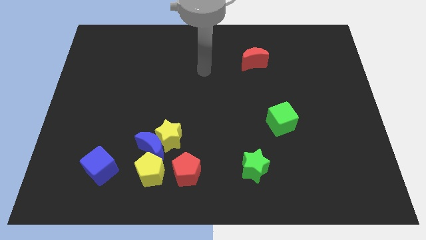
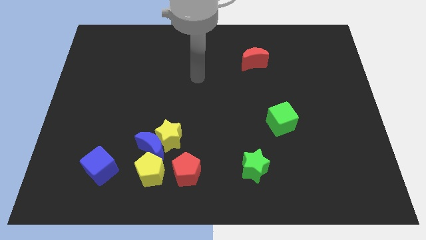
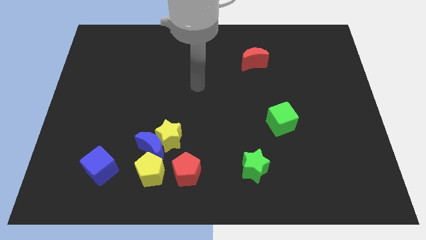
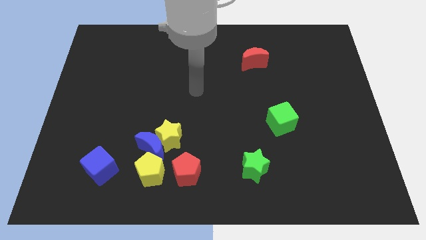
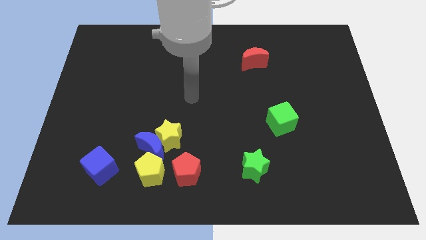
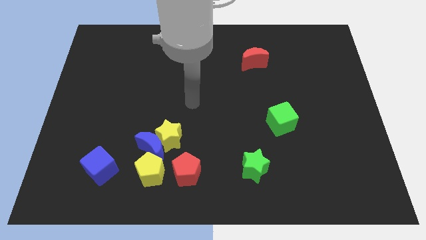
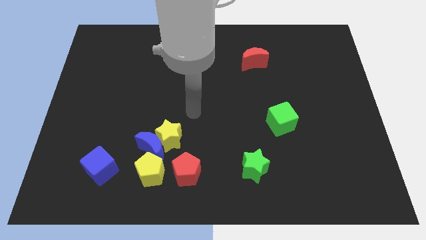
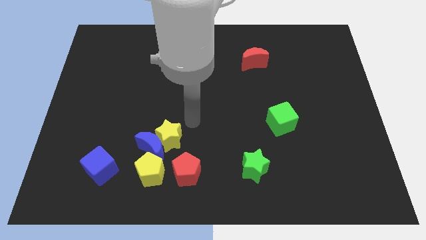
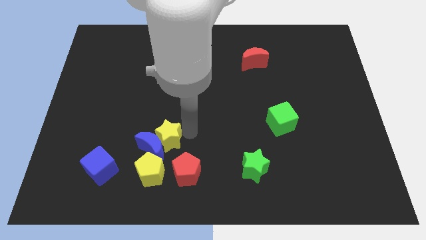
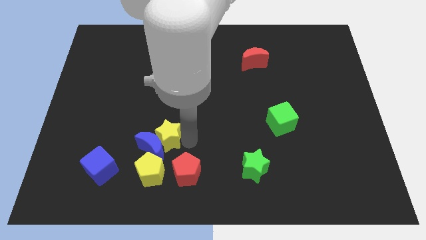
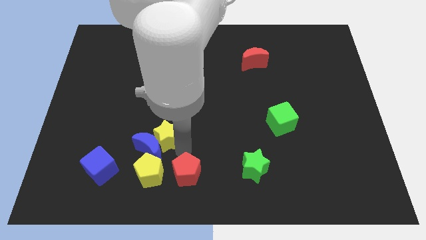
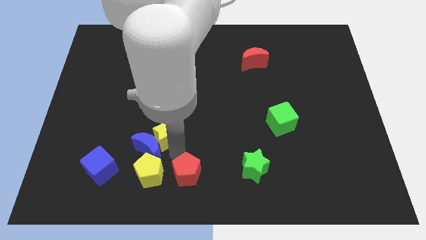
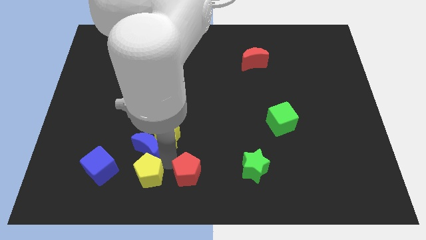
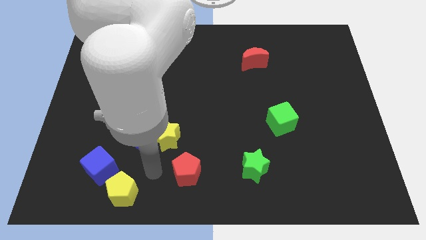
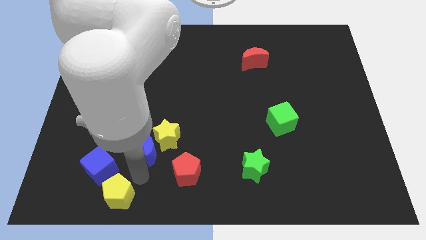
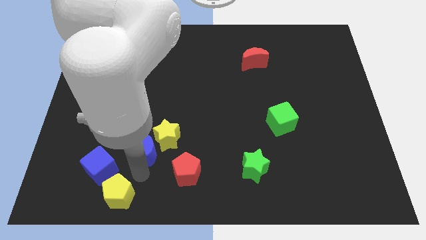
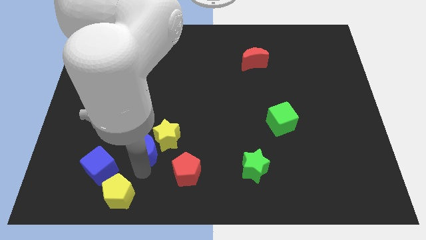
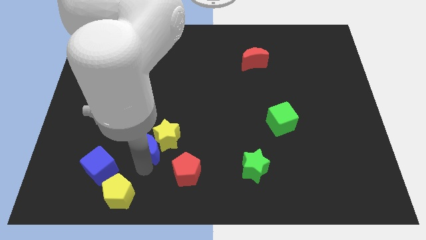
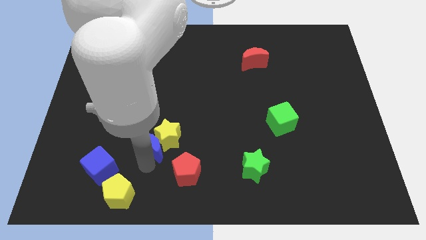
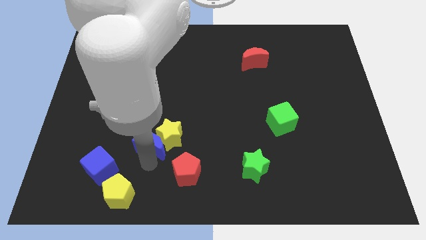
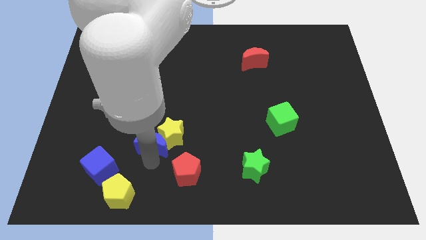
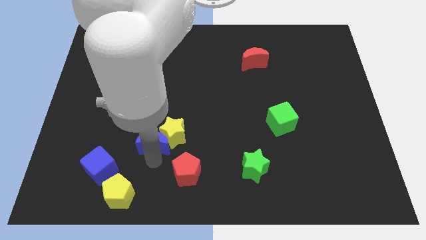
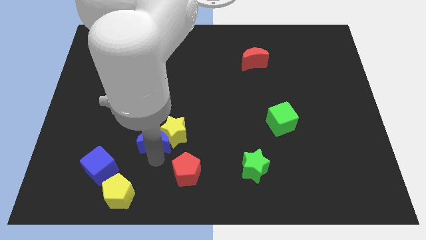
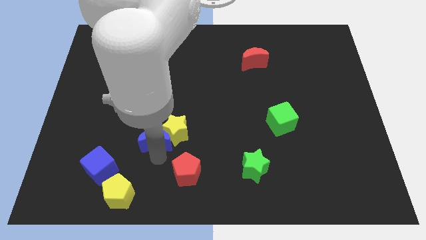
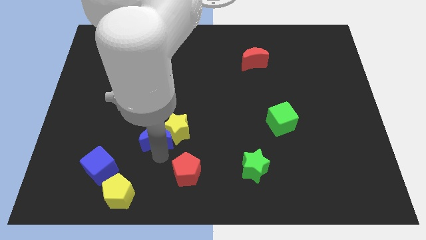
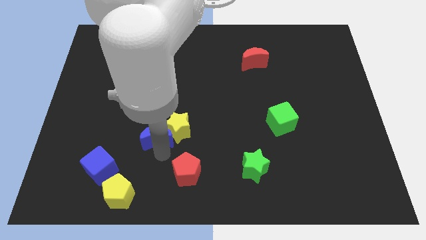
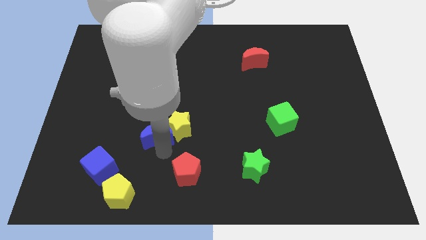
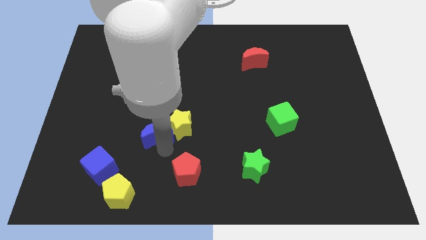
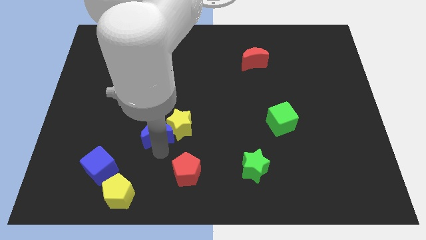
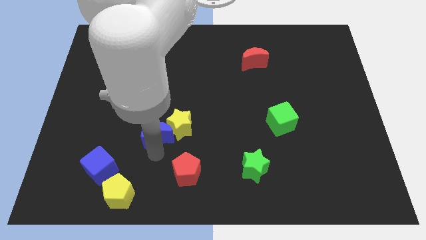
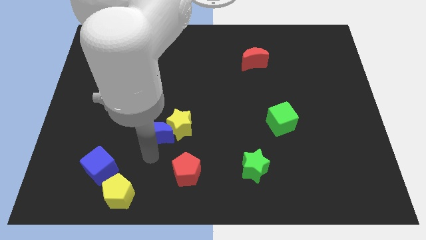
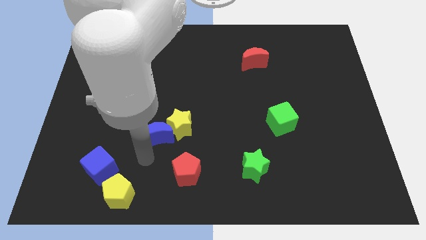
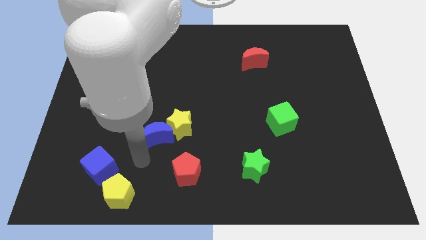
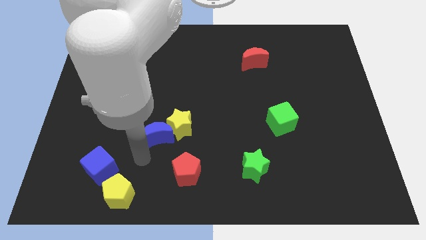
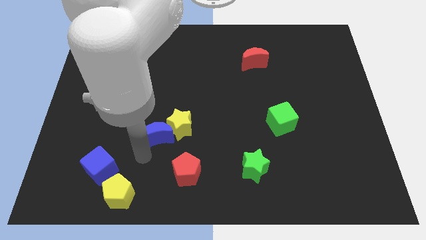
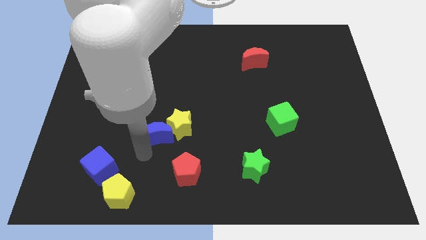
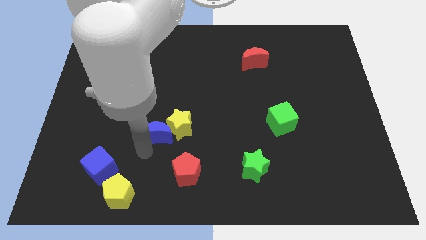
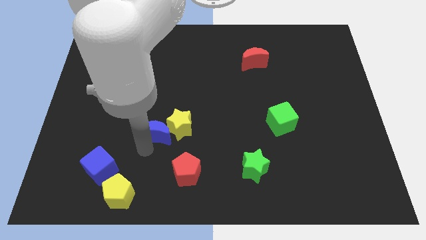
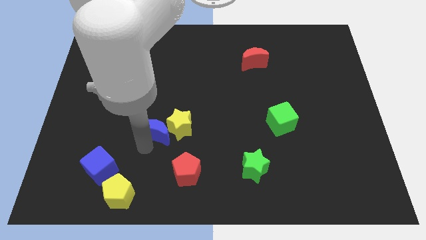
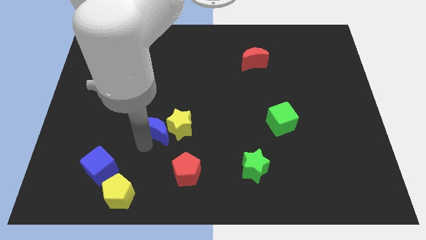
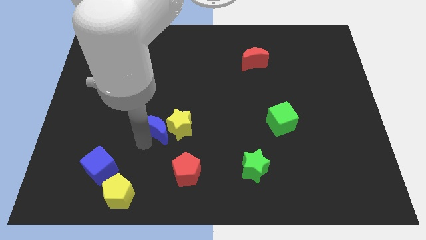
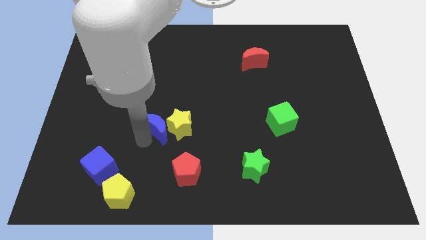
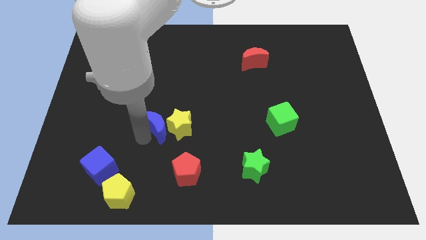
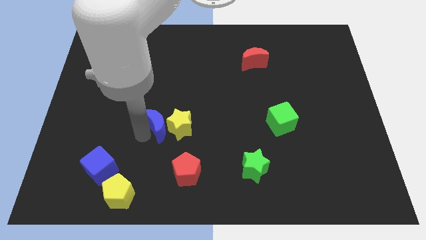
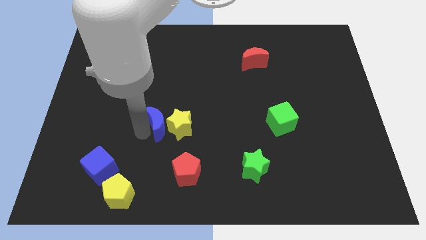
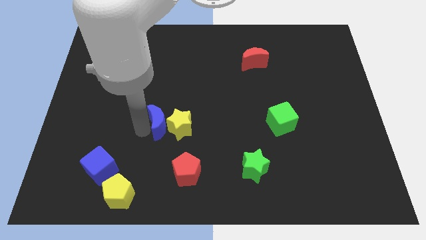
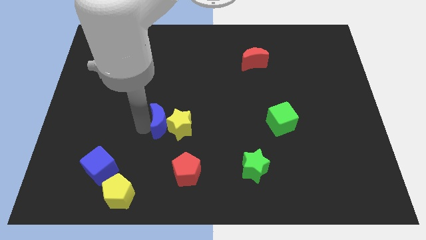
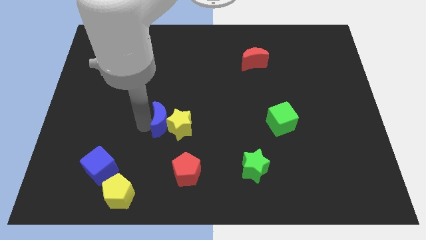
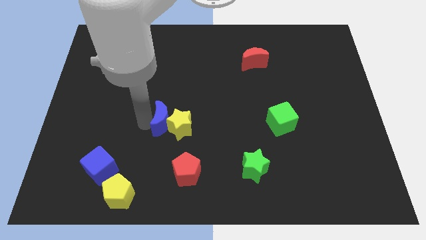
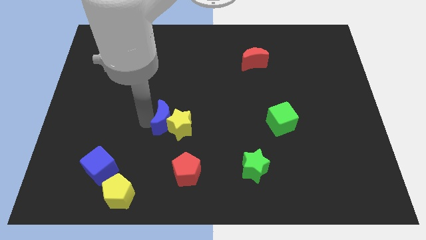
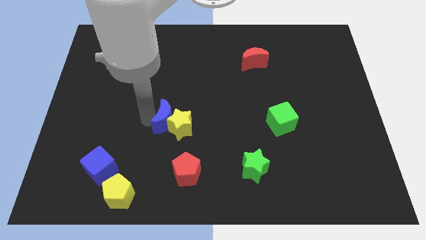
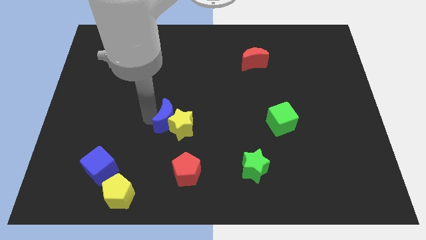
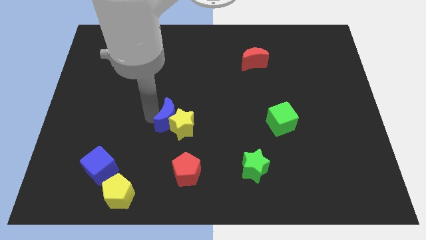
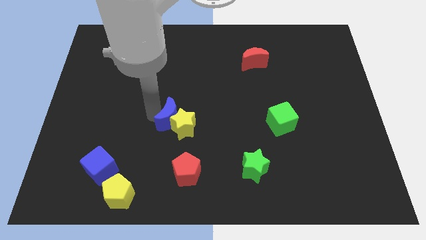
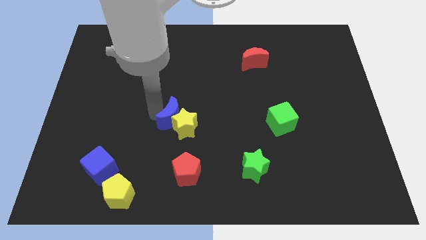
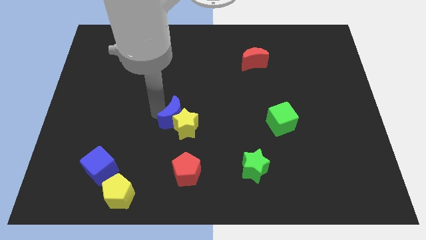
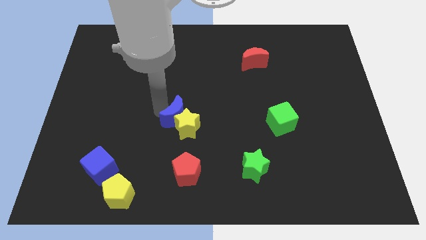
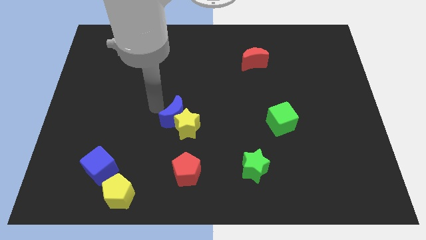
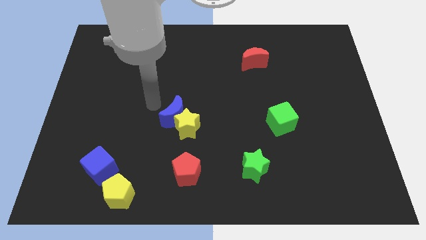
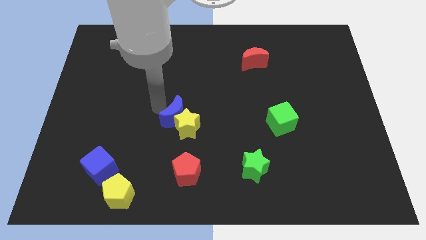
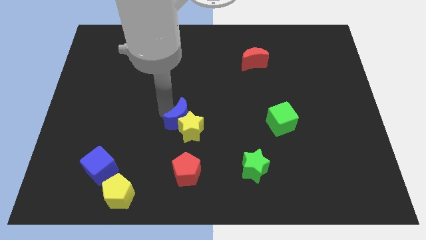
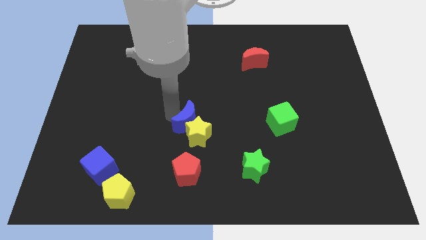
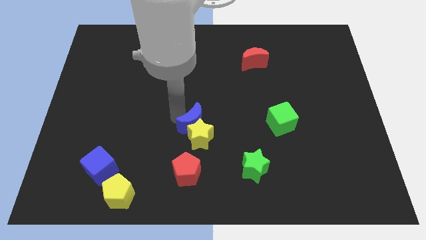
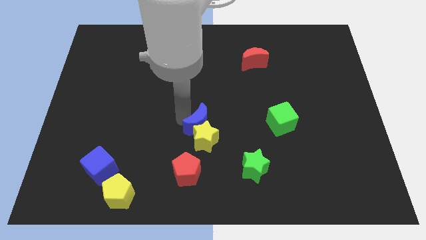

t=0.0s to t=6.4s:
slide the blue moon slightly right

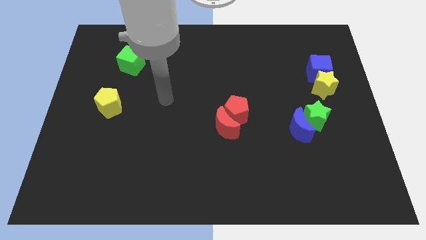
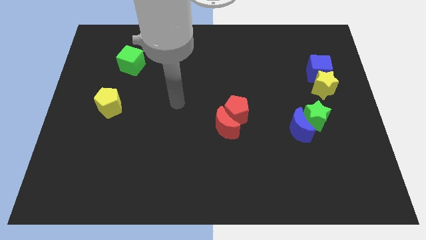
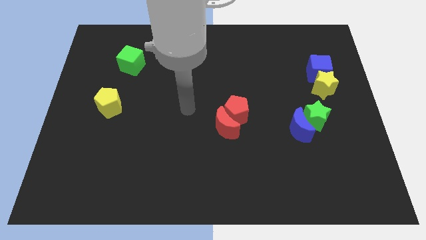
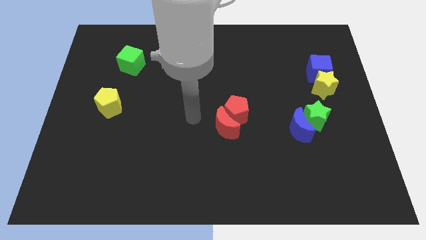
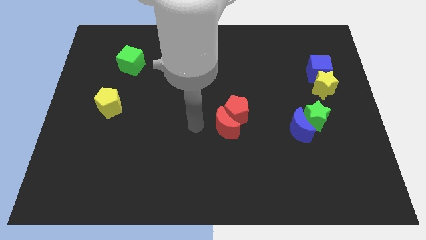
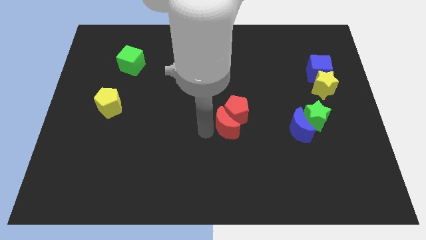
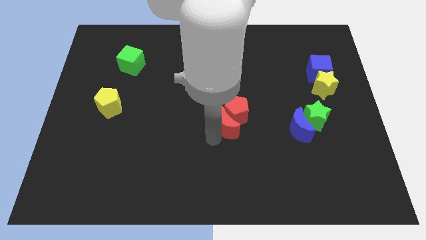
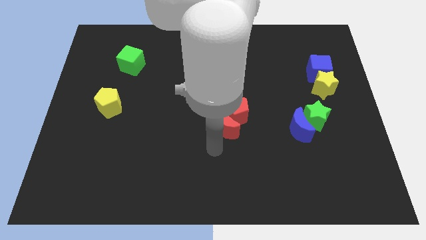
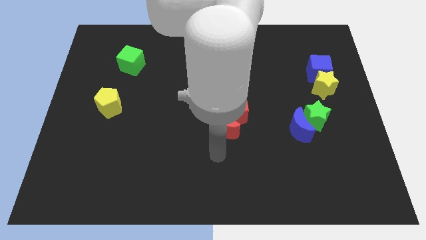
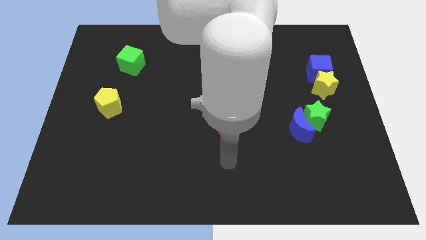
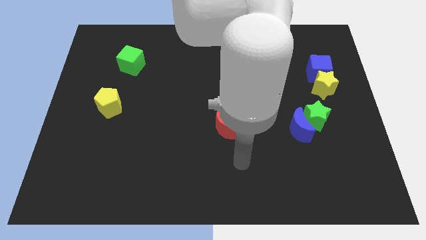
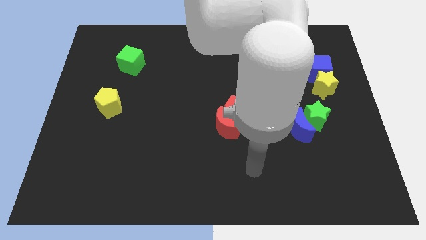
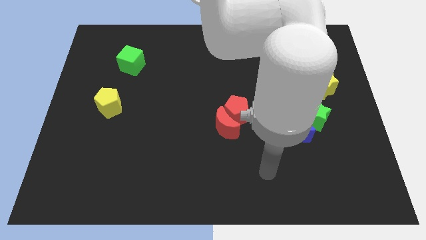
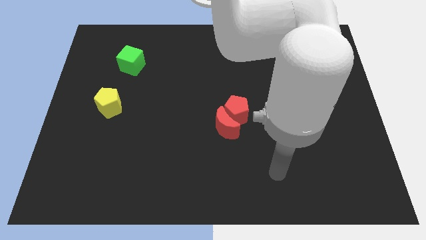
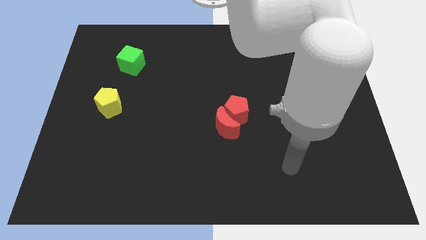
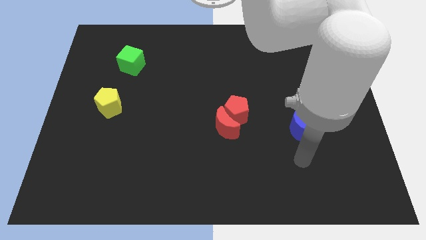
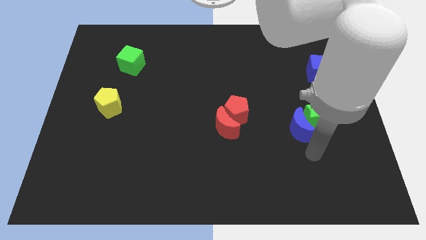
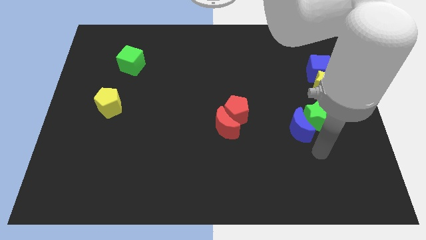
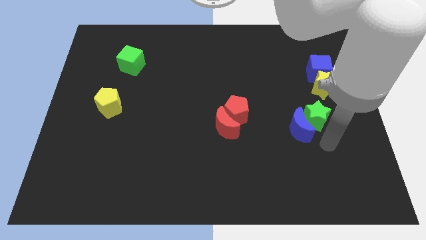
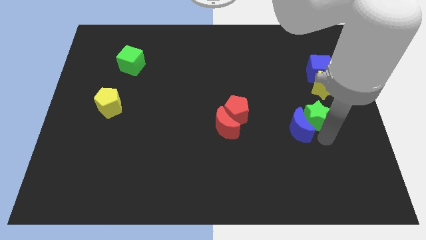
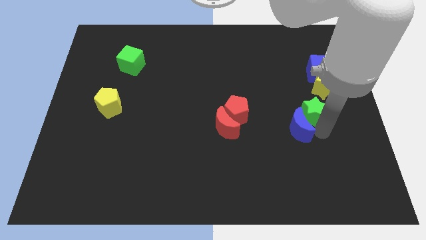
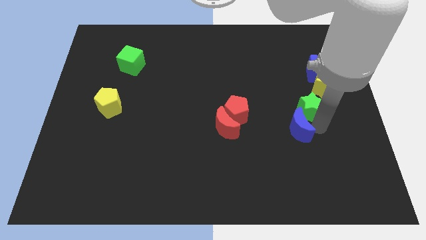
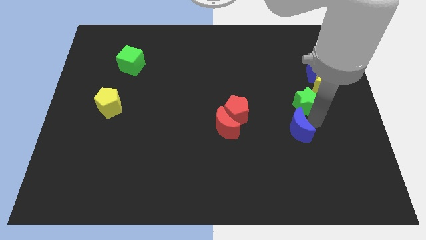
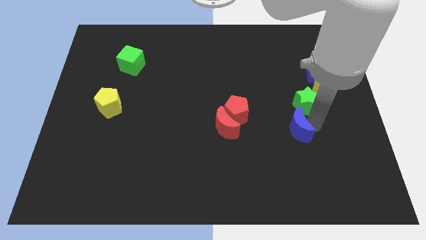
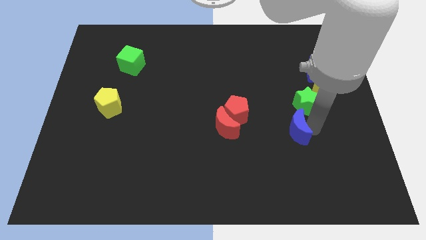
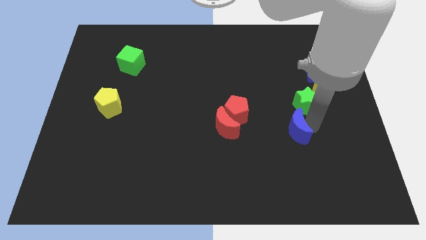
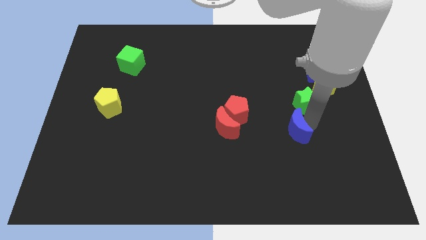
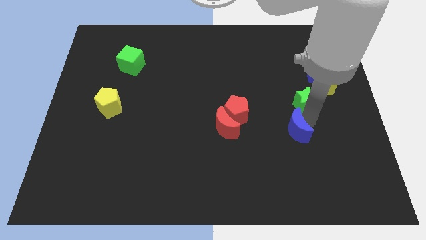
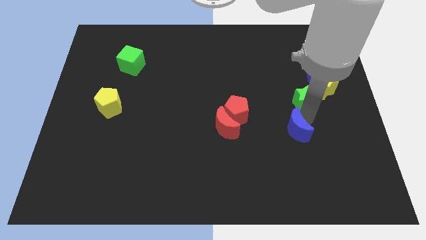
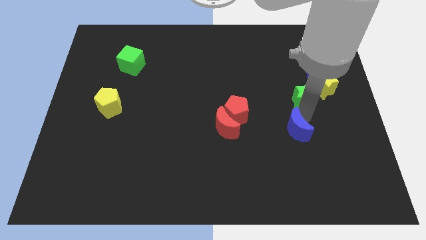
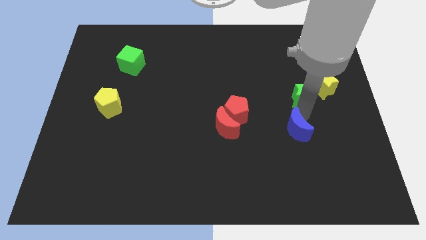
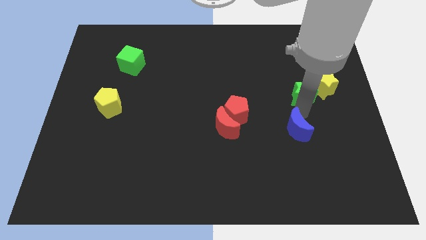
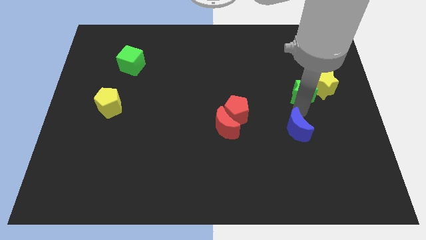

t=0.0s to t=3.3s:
move the green star a bit up
